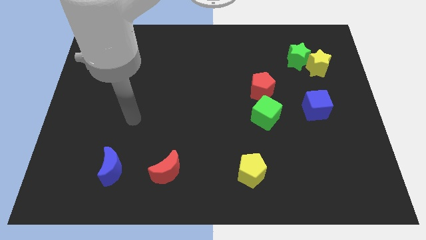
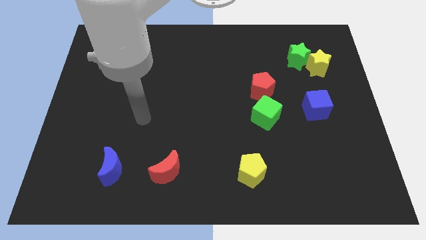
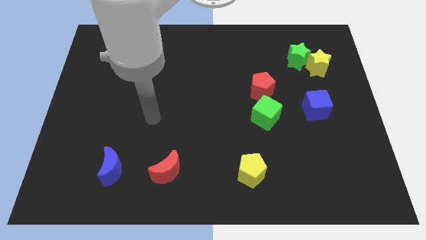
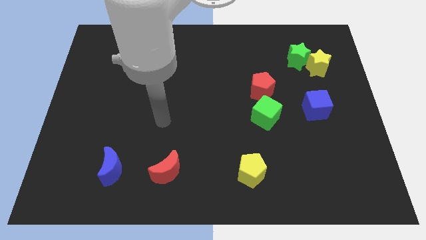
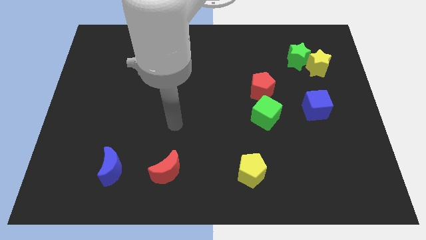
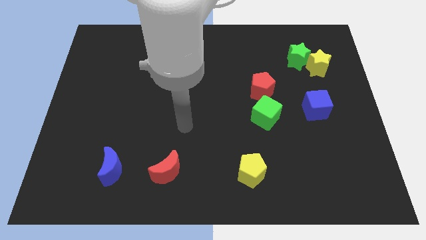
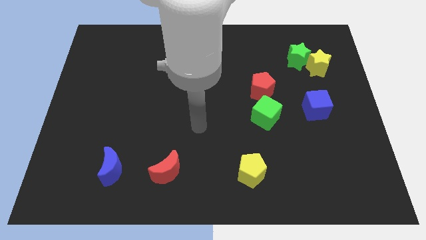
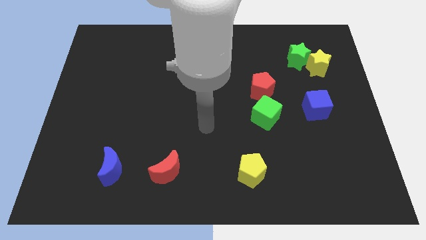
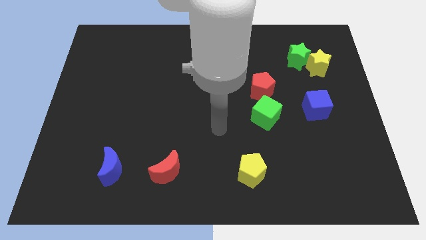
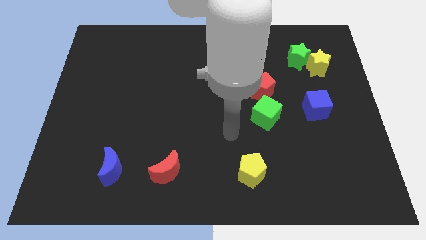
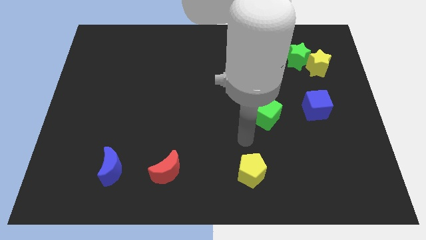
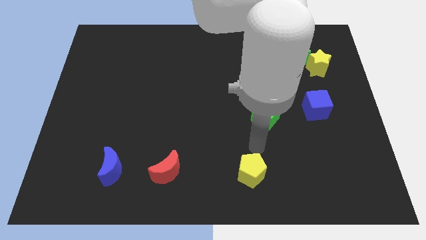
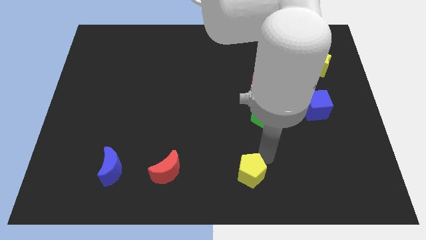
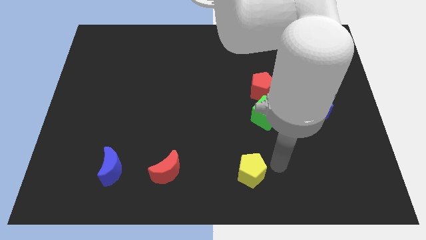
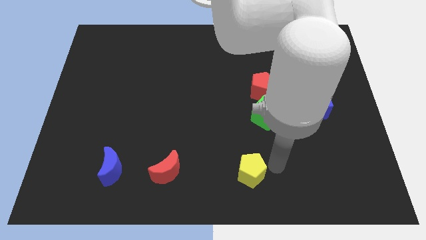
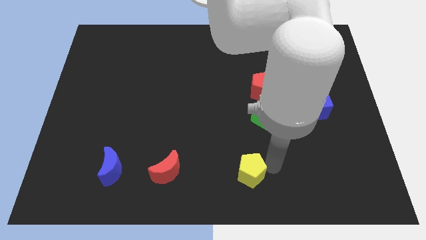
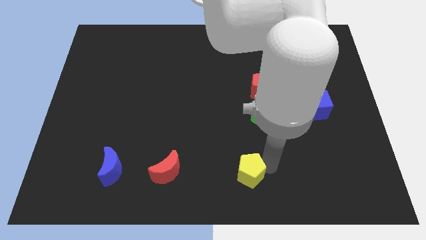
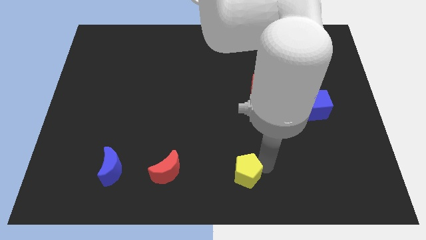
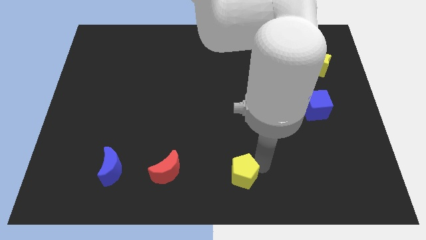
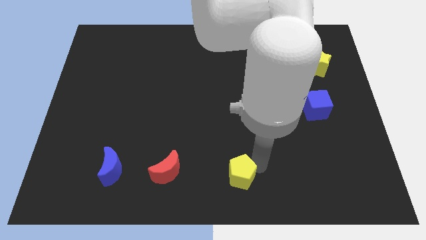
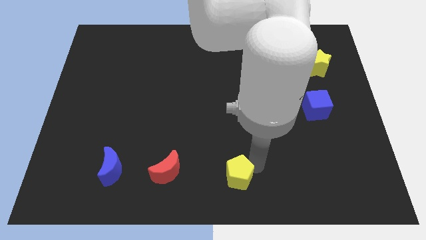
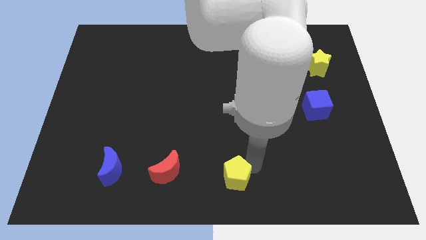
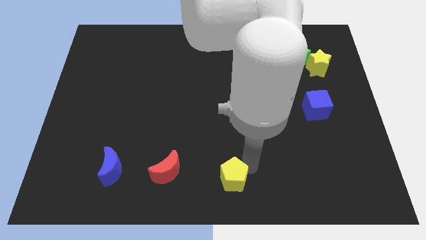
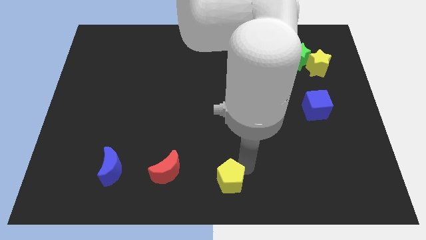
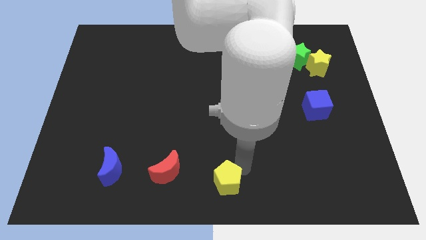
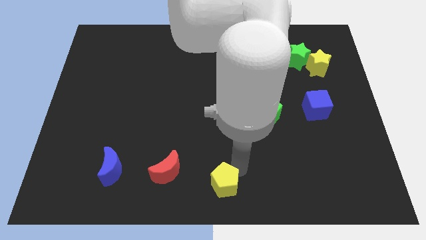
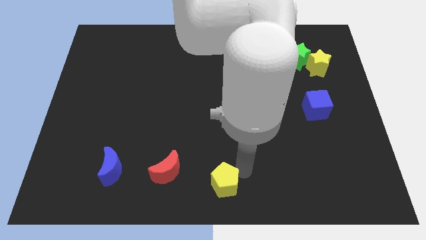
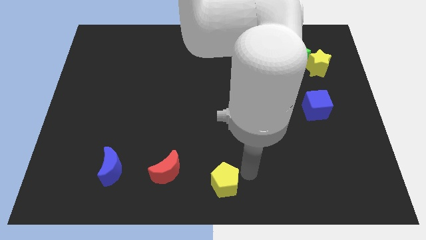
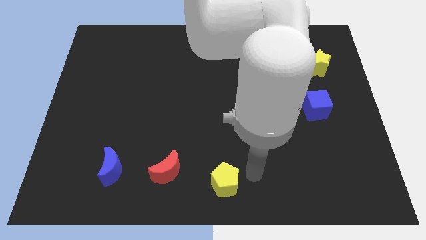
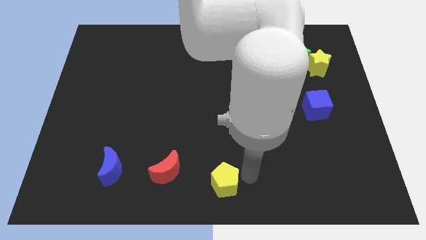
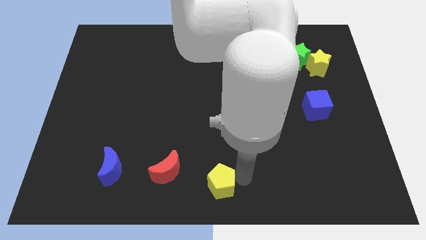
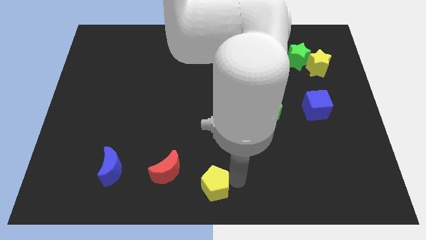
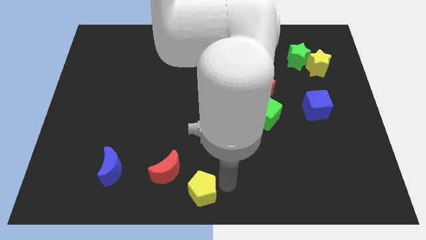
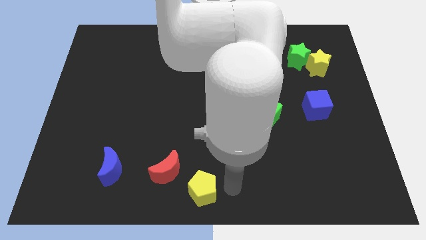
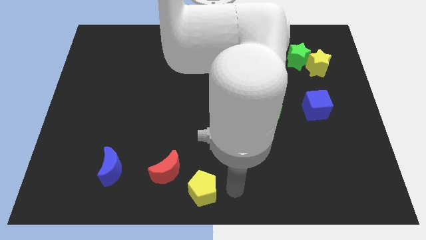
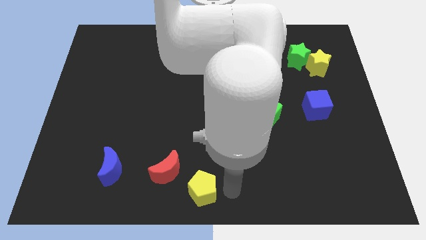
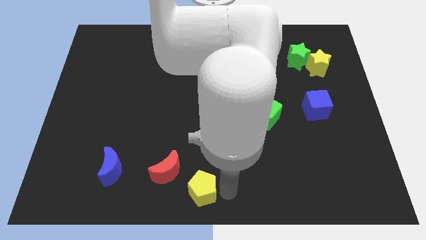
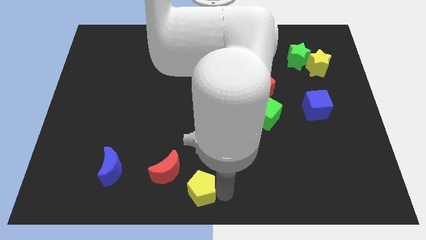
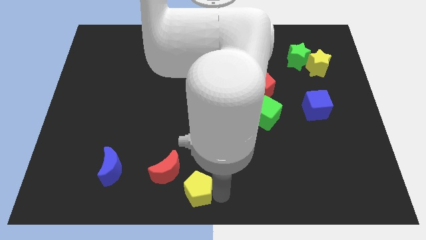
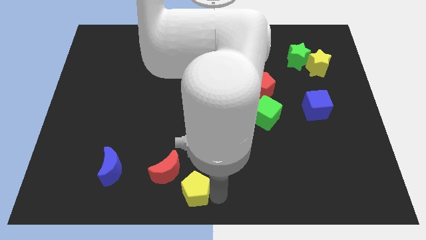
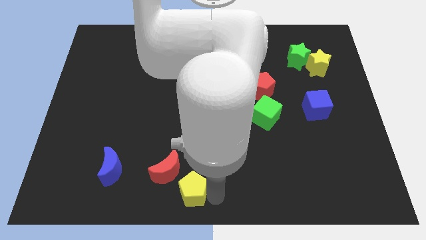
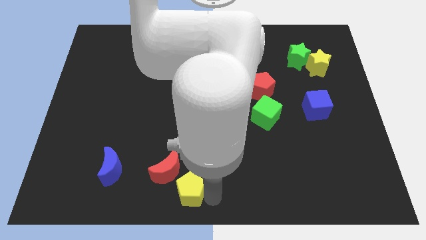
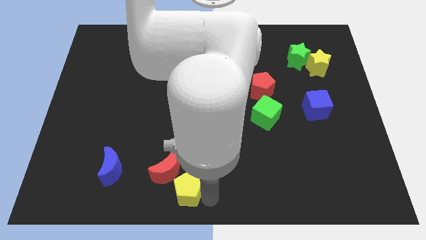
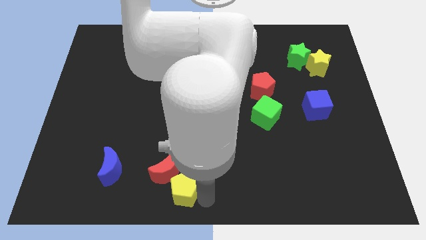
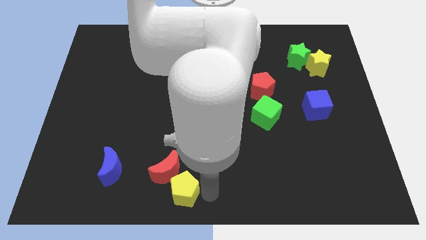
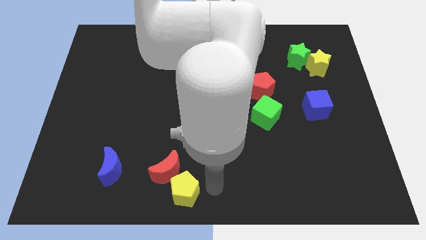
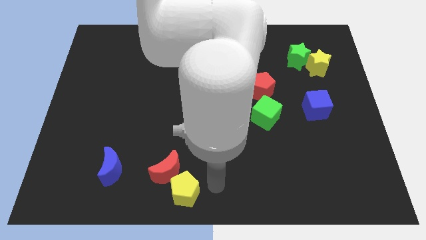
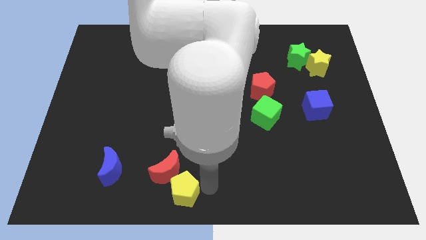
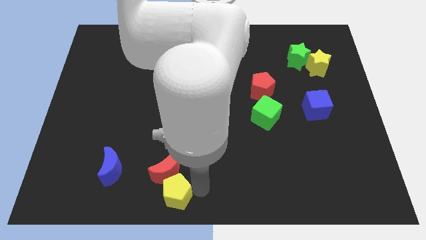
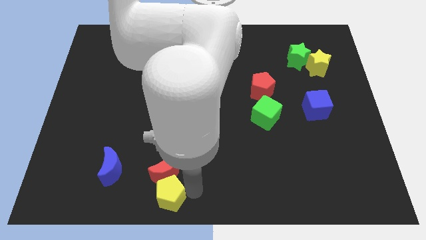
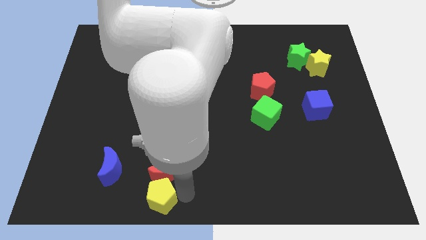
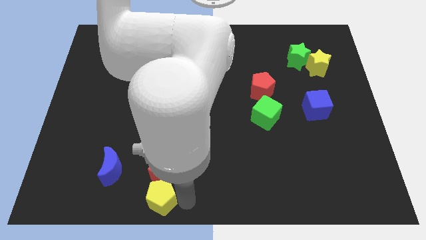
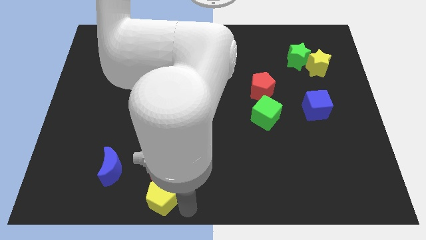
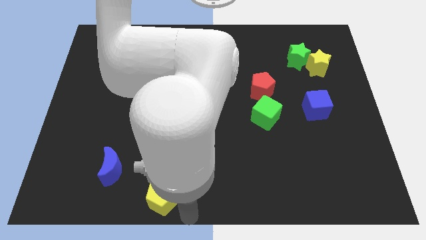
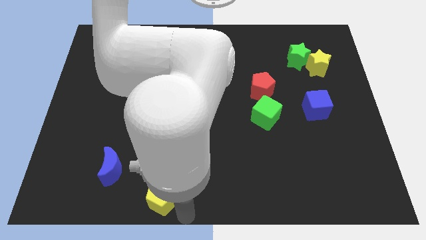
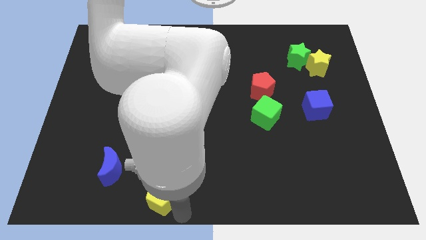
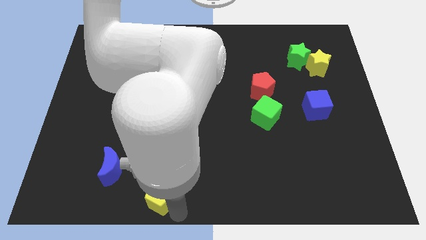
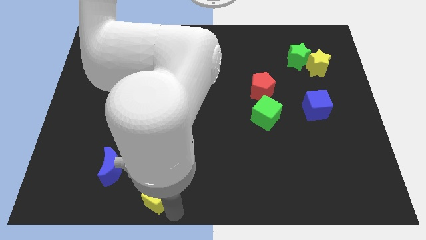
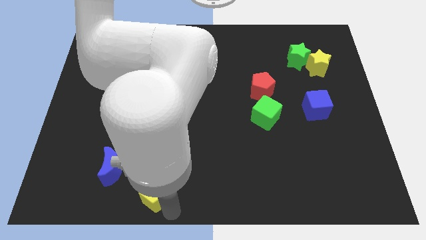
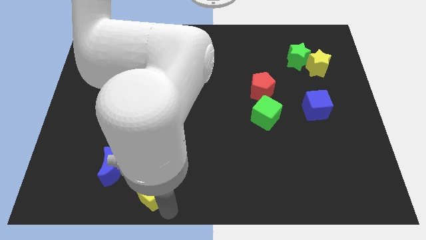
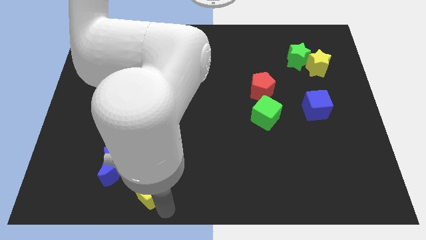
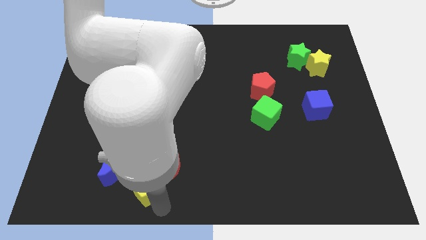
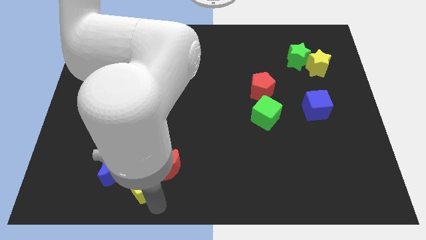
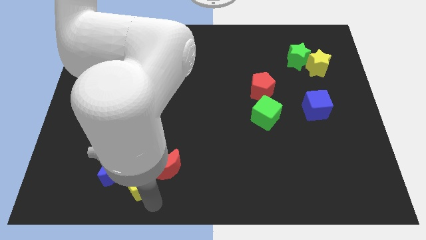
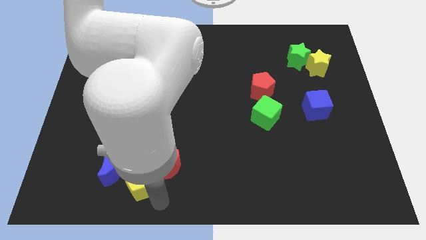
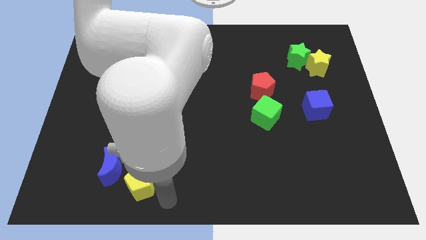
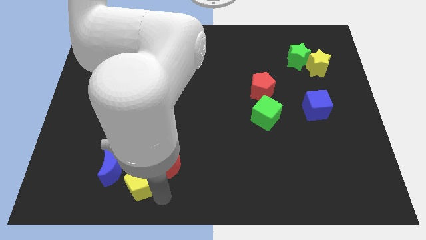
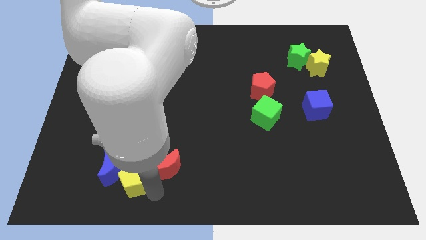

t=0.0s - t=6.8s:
slide the yellow pentagon next to the blue moon

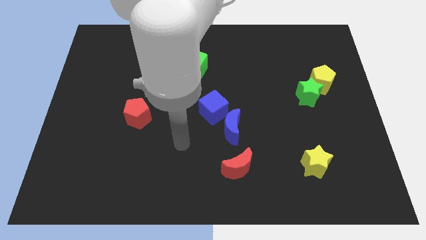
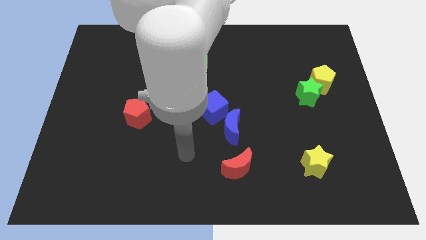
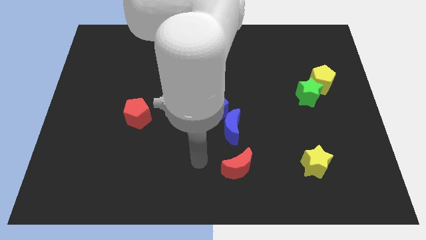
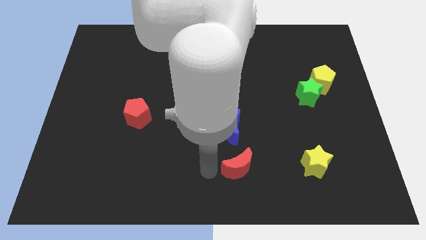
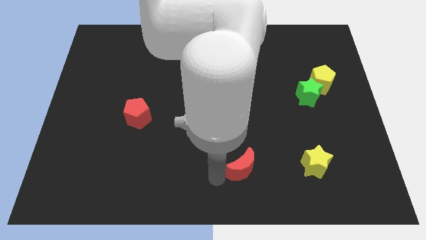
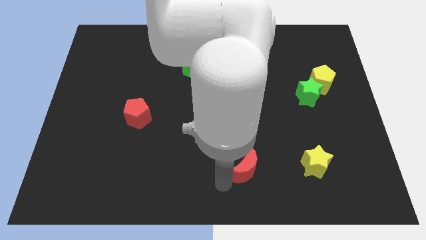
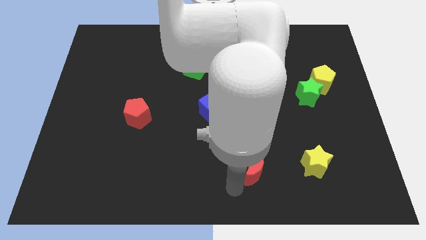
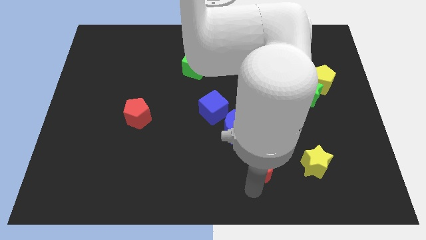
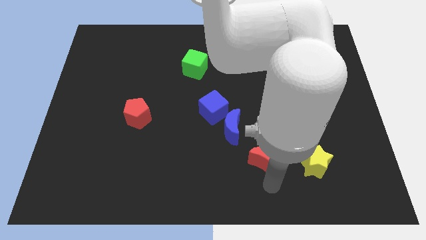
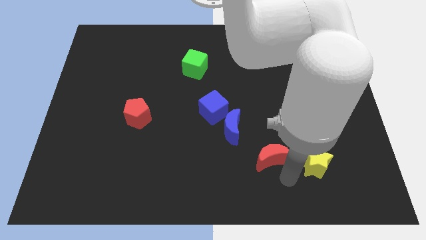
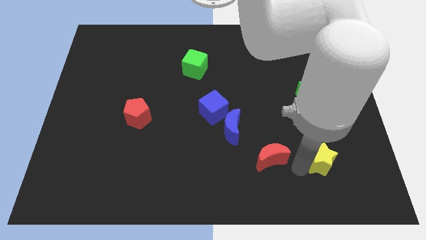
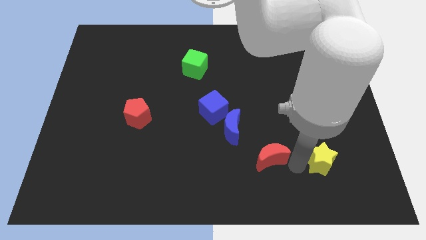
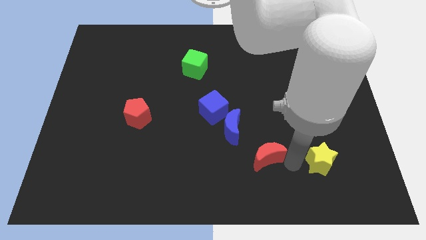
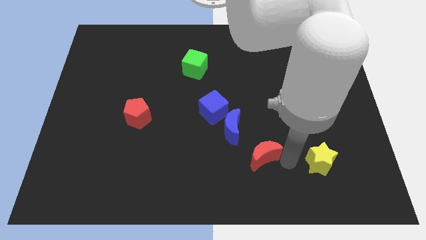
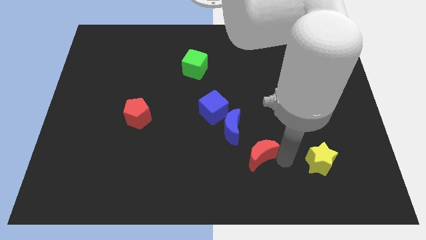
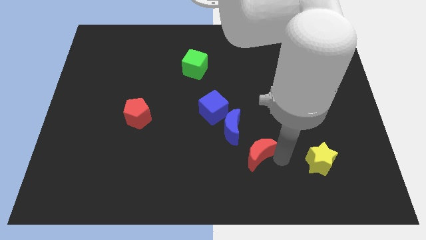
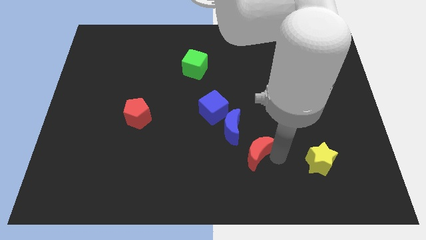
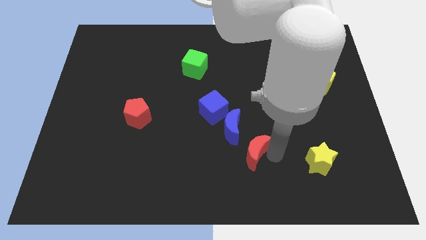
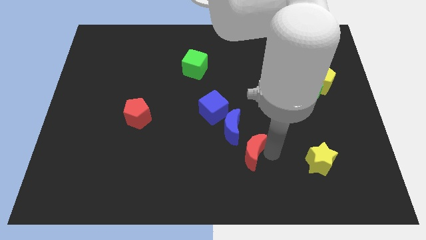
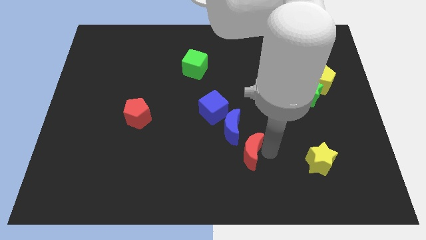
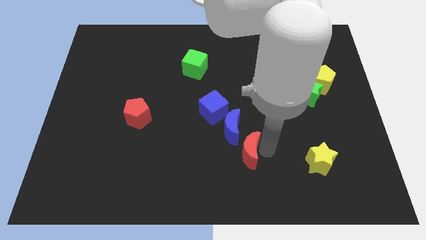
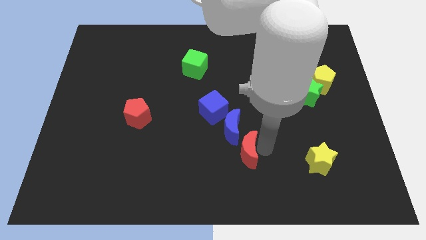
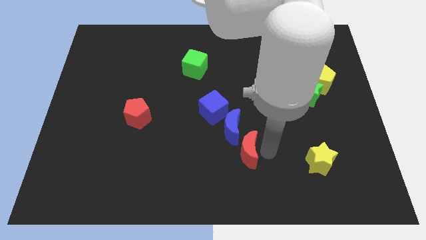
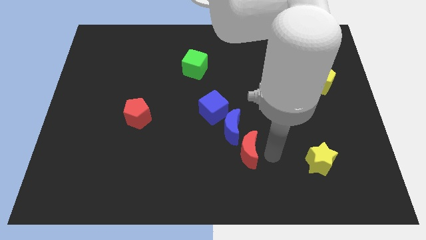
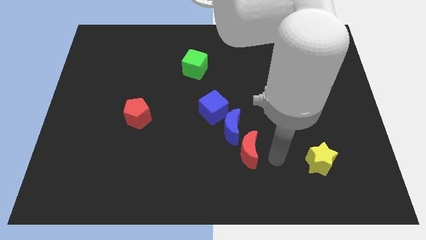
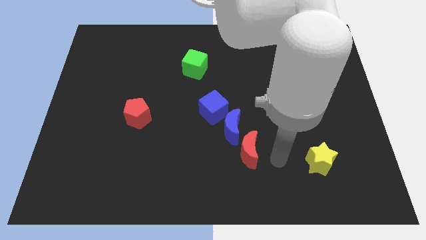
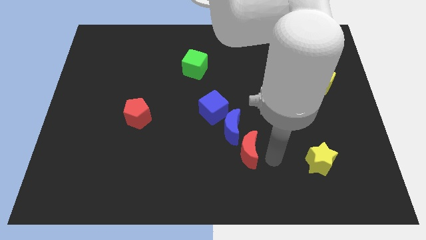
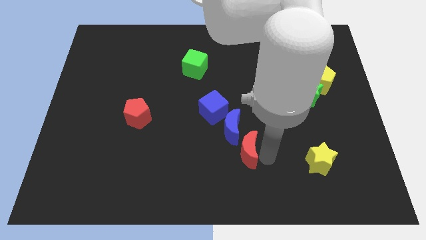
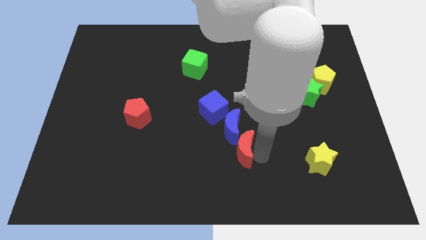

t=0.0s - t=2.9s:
slide the red moon close to the blue moon
